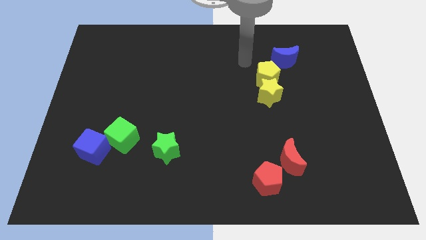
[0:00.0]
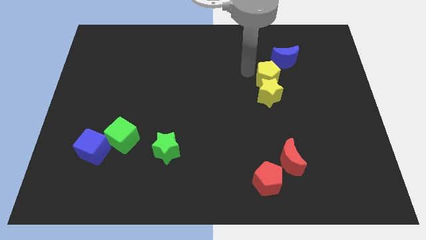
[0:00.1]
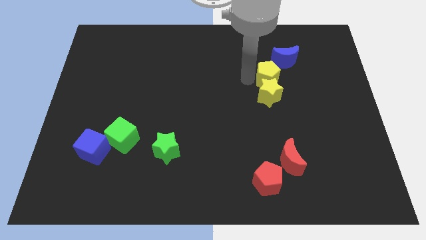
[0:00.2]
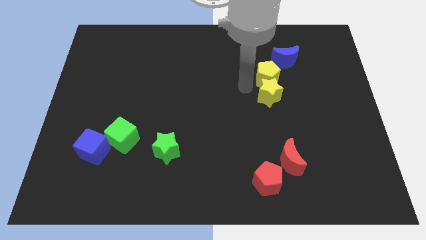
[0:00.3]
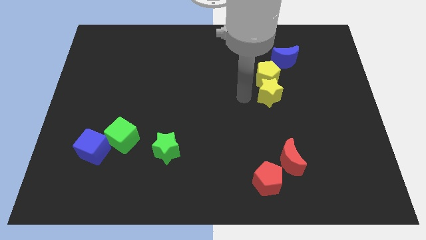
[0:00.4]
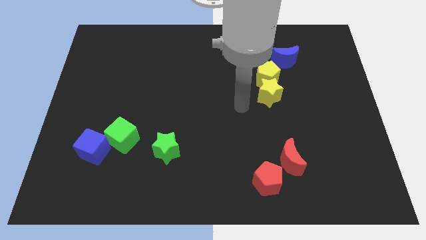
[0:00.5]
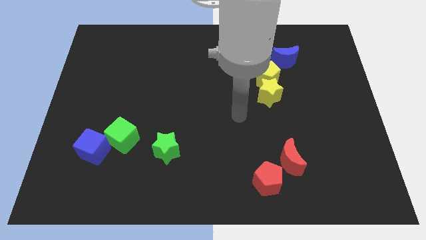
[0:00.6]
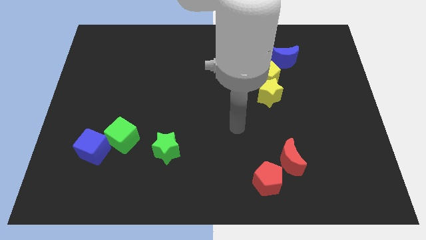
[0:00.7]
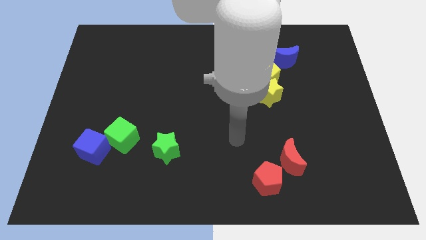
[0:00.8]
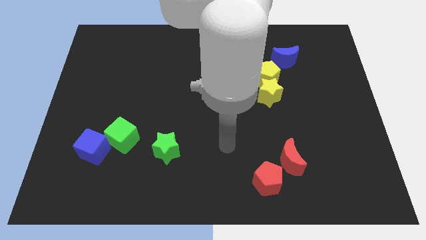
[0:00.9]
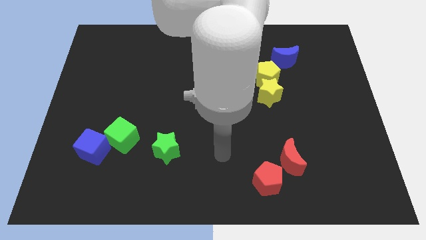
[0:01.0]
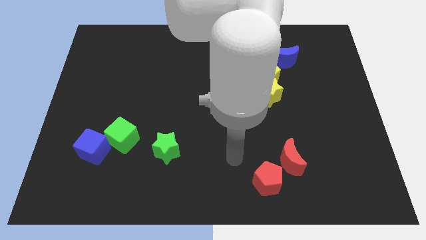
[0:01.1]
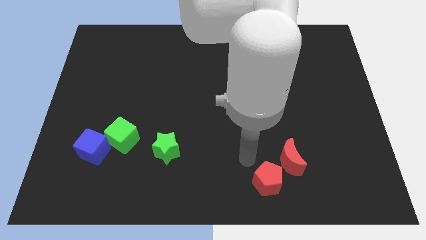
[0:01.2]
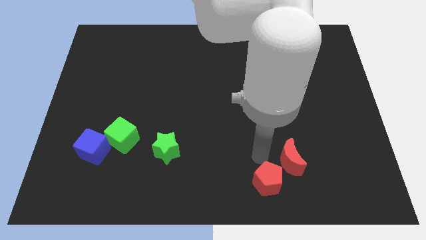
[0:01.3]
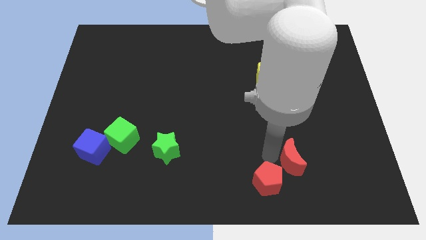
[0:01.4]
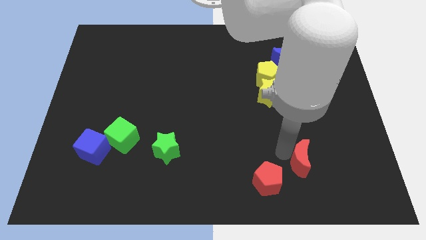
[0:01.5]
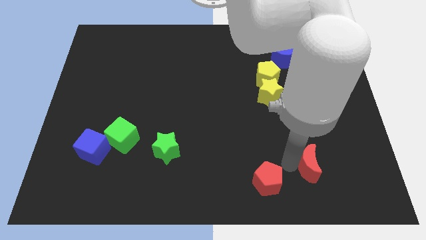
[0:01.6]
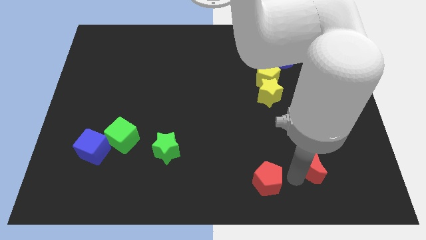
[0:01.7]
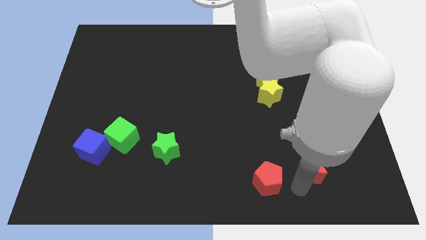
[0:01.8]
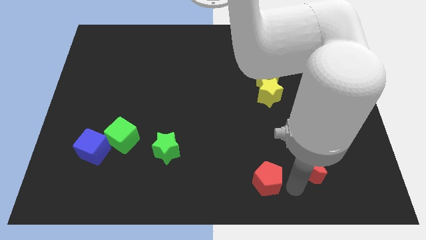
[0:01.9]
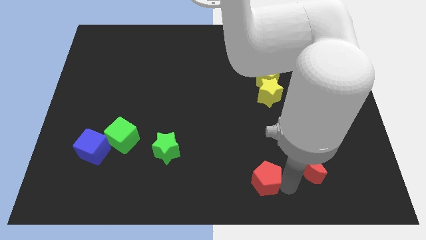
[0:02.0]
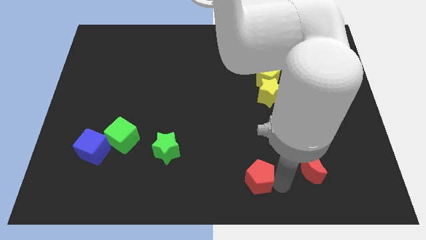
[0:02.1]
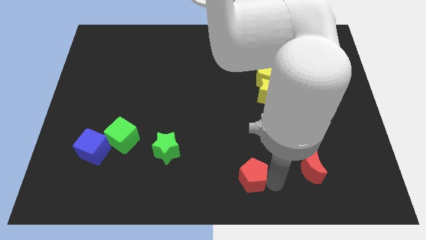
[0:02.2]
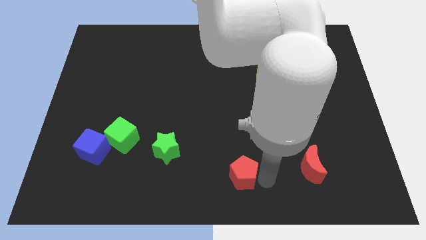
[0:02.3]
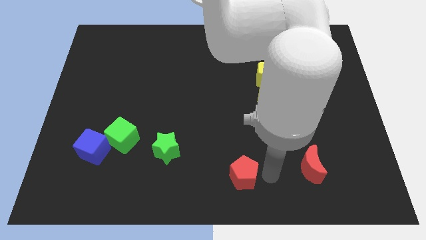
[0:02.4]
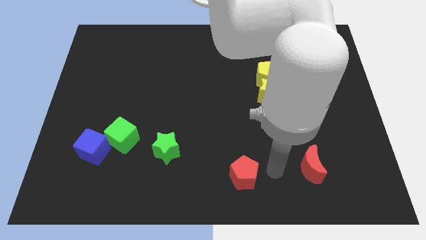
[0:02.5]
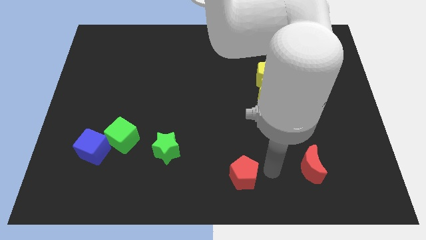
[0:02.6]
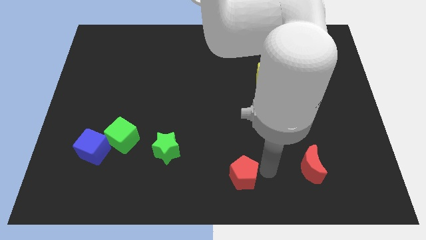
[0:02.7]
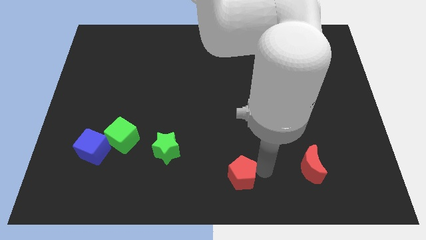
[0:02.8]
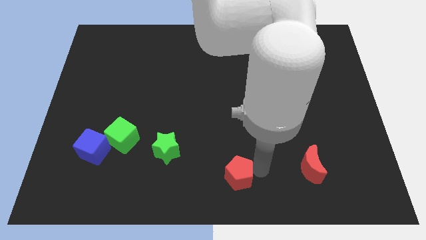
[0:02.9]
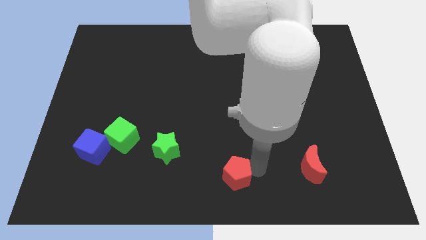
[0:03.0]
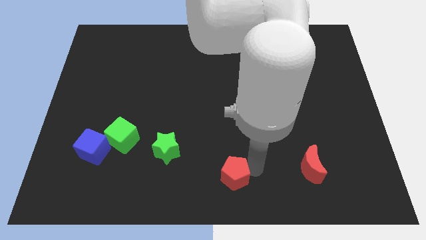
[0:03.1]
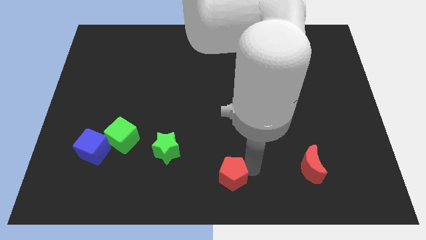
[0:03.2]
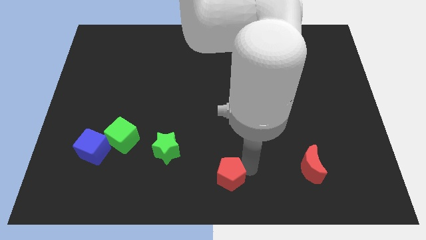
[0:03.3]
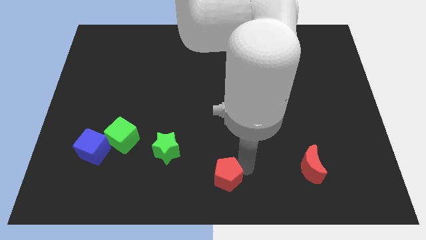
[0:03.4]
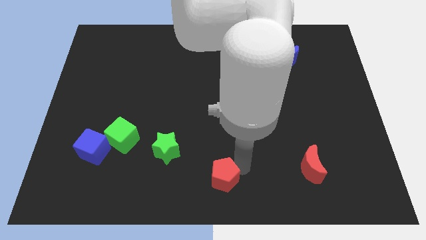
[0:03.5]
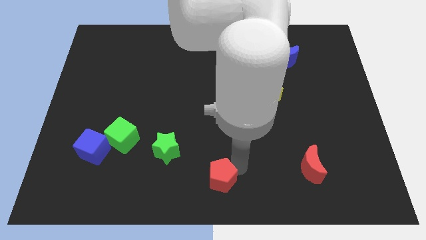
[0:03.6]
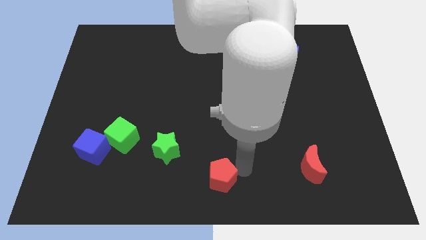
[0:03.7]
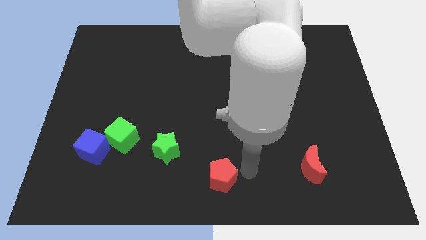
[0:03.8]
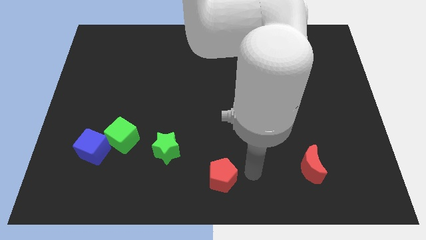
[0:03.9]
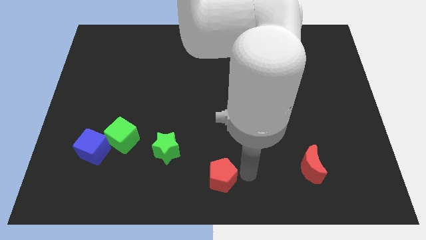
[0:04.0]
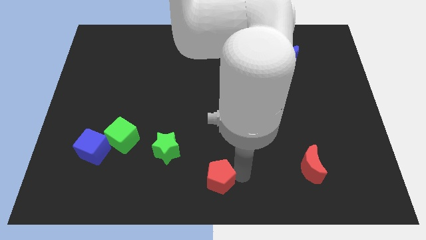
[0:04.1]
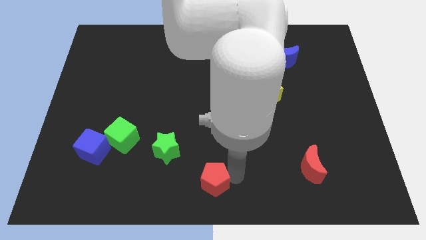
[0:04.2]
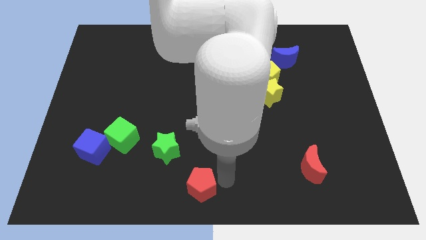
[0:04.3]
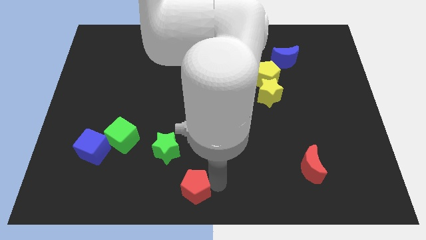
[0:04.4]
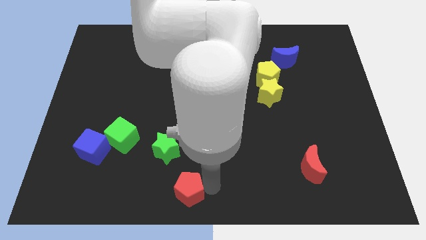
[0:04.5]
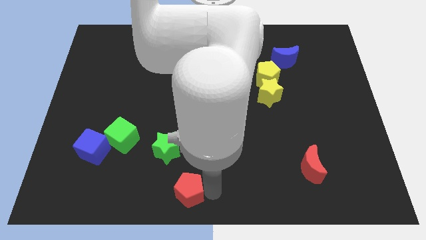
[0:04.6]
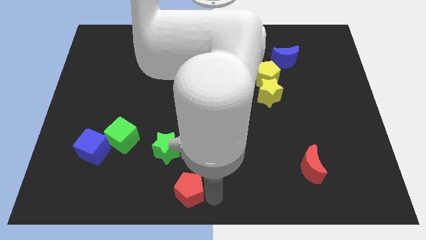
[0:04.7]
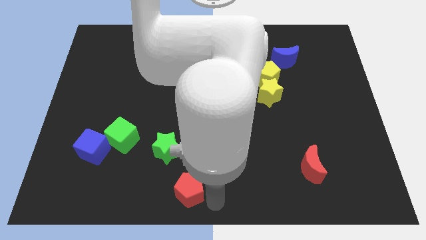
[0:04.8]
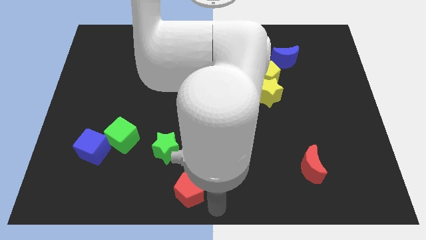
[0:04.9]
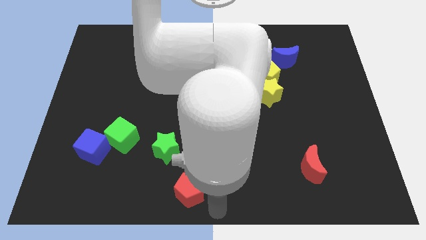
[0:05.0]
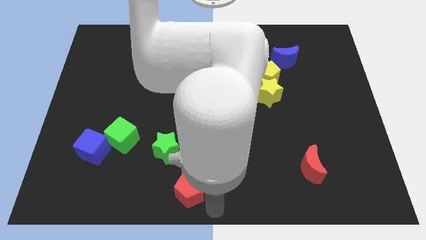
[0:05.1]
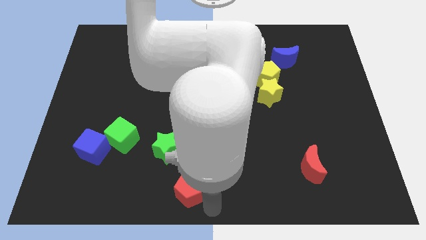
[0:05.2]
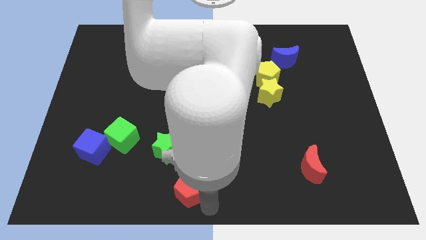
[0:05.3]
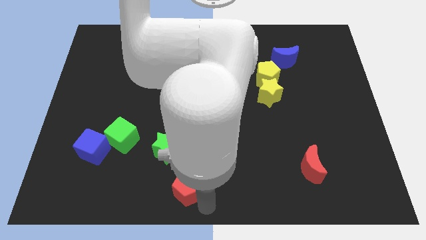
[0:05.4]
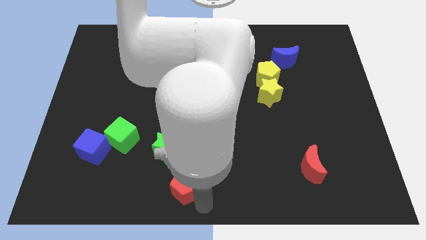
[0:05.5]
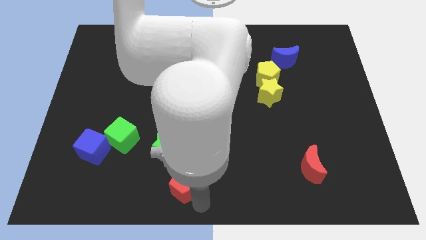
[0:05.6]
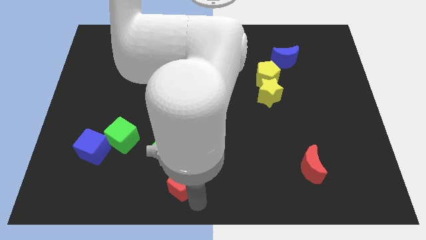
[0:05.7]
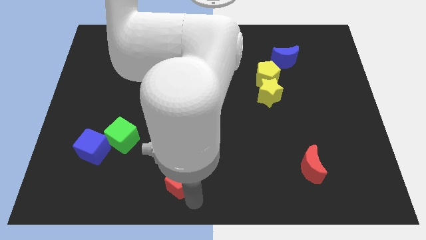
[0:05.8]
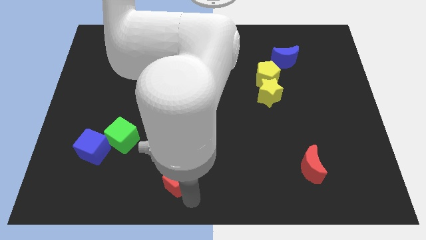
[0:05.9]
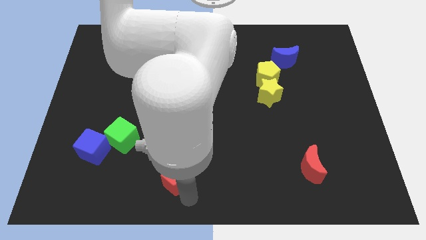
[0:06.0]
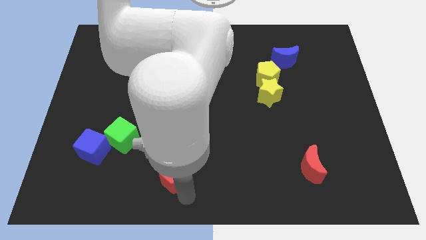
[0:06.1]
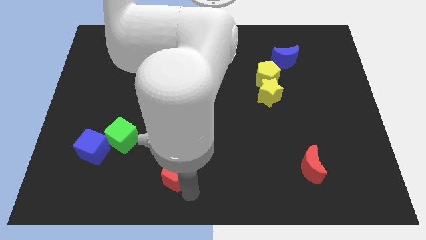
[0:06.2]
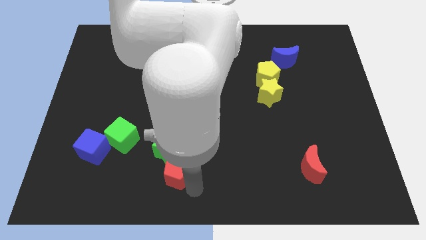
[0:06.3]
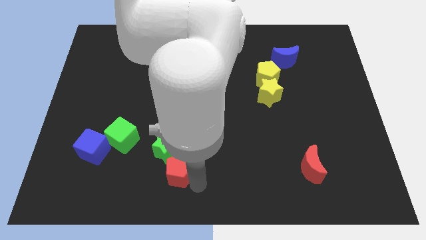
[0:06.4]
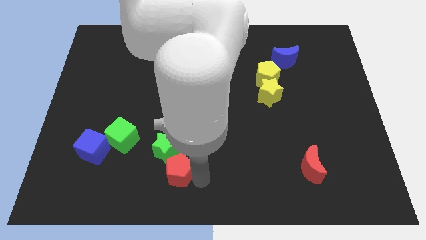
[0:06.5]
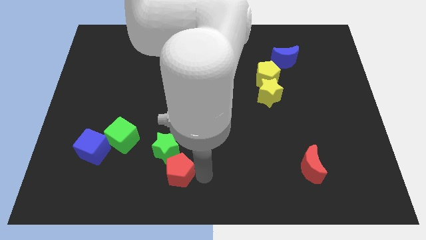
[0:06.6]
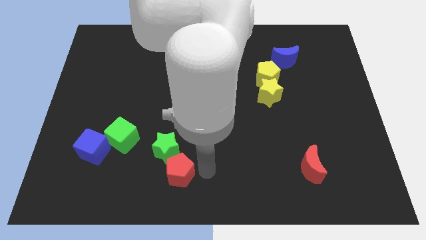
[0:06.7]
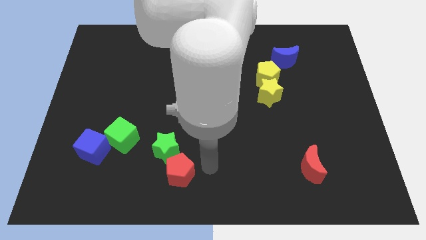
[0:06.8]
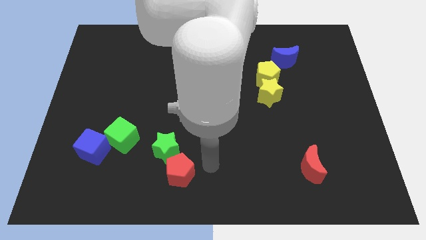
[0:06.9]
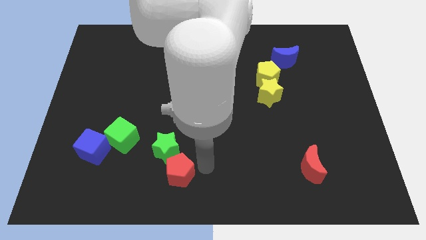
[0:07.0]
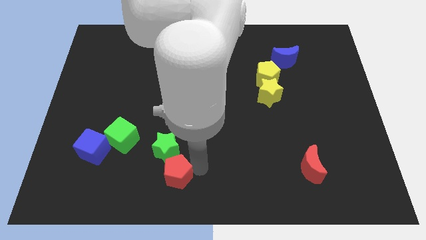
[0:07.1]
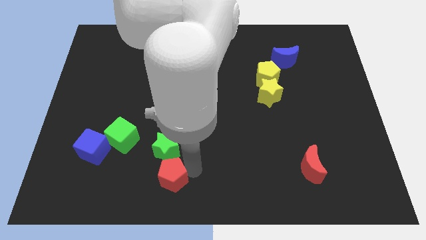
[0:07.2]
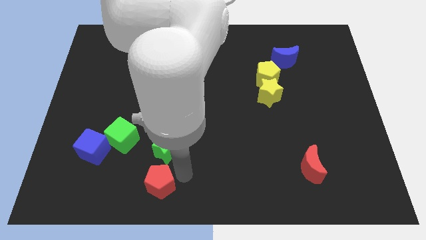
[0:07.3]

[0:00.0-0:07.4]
push the red pentagon left

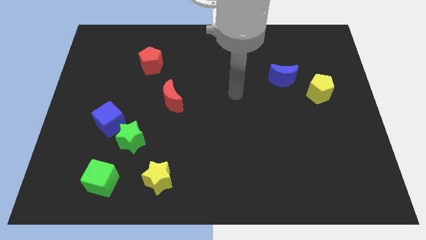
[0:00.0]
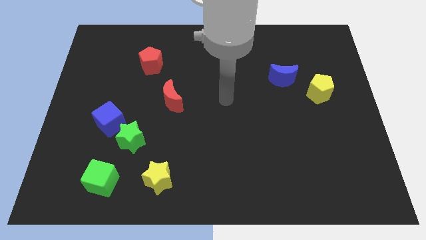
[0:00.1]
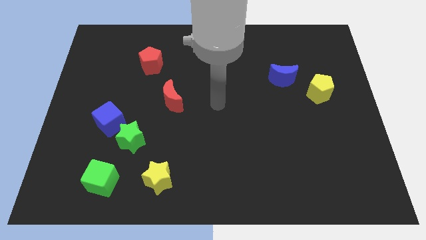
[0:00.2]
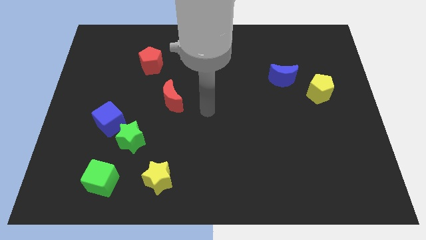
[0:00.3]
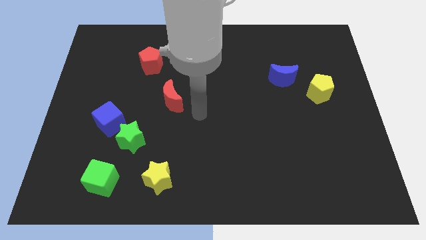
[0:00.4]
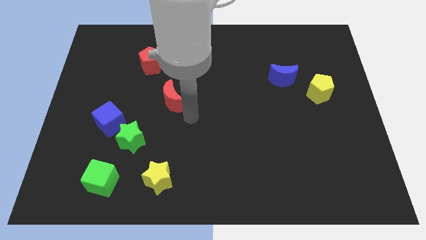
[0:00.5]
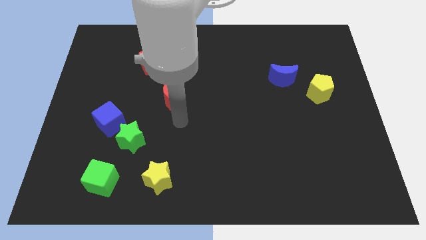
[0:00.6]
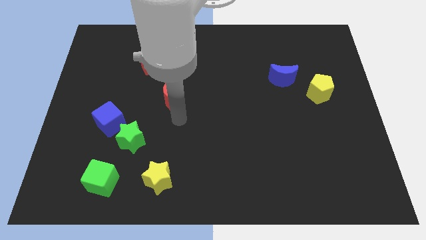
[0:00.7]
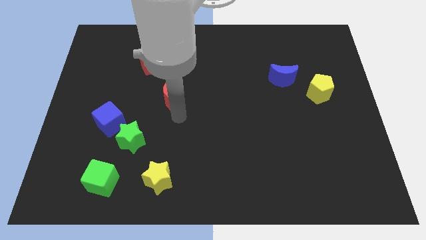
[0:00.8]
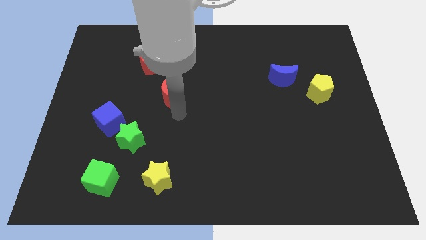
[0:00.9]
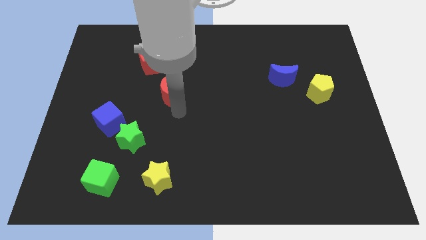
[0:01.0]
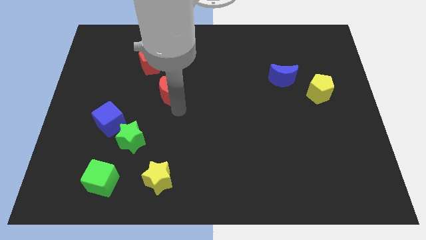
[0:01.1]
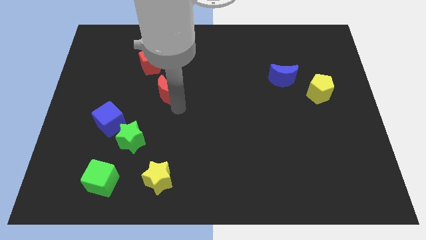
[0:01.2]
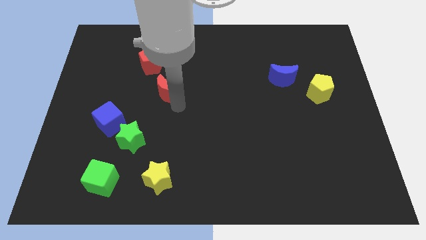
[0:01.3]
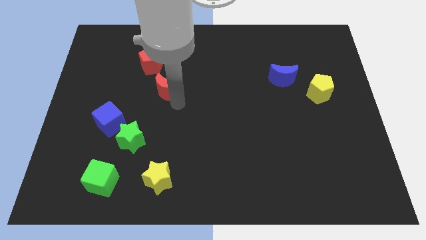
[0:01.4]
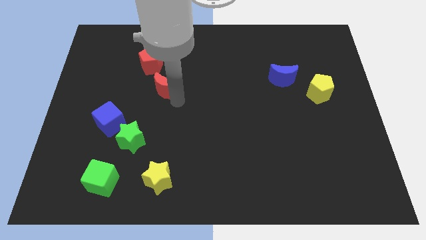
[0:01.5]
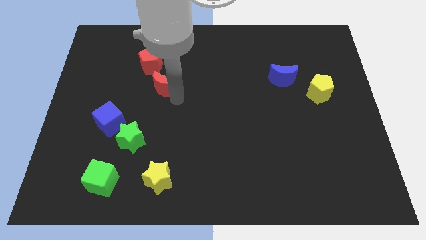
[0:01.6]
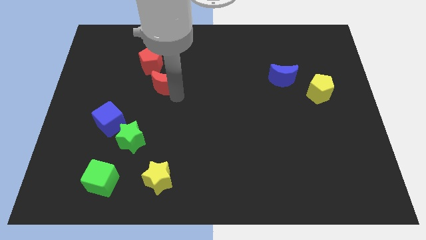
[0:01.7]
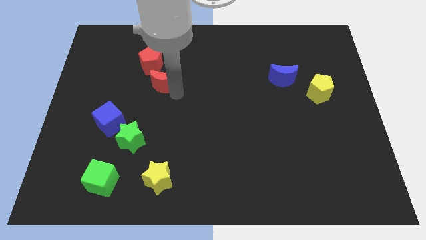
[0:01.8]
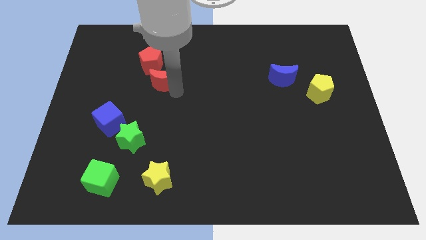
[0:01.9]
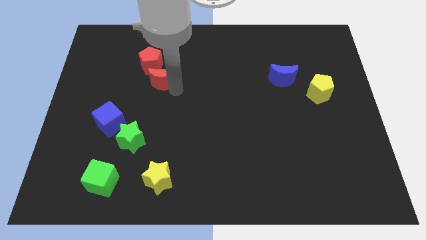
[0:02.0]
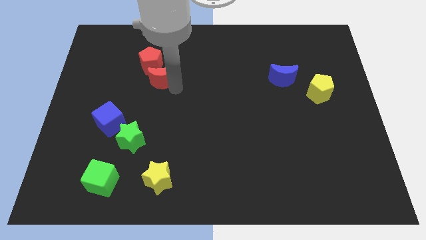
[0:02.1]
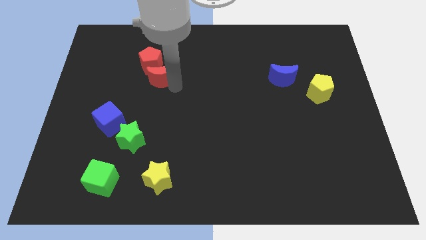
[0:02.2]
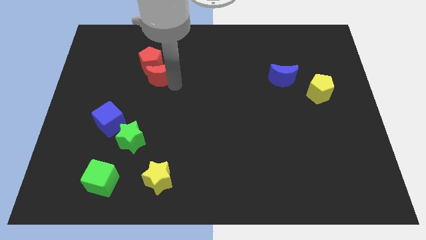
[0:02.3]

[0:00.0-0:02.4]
slide the red moon upwards and then left slightly
